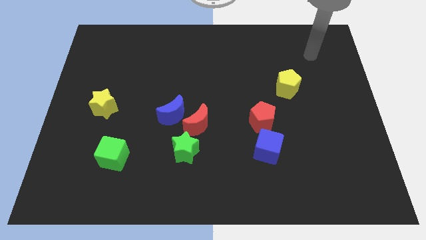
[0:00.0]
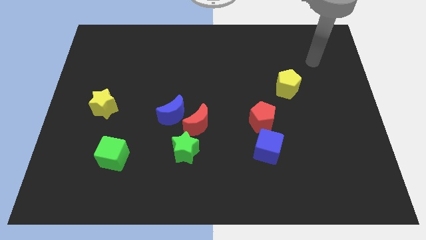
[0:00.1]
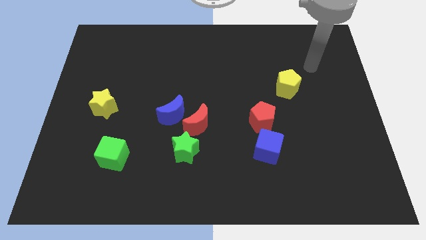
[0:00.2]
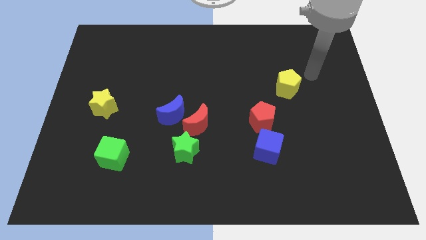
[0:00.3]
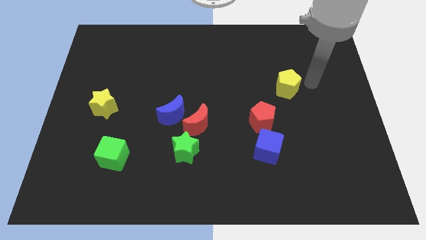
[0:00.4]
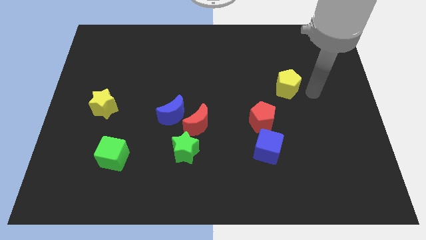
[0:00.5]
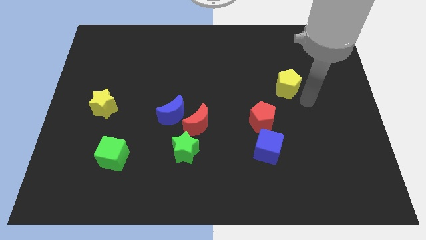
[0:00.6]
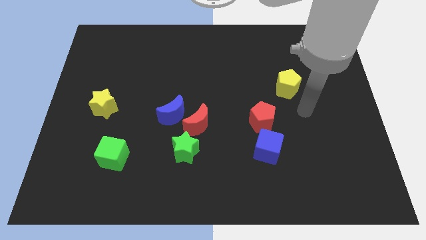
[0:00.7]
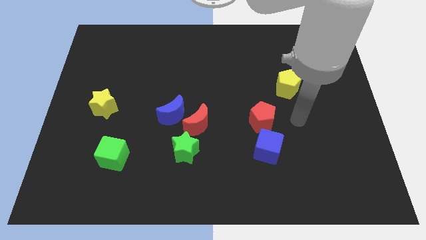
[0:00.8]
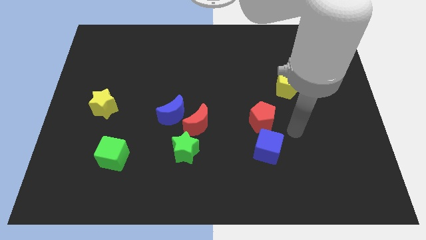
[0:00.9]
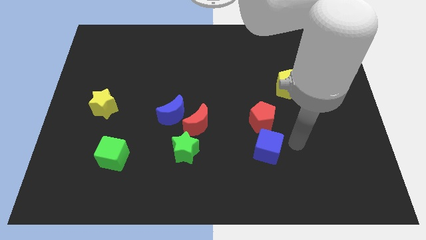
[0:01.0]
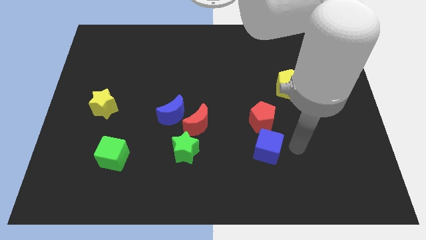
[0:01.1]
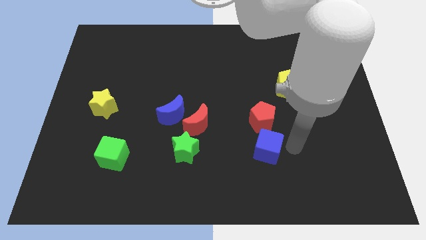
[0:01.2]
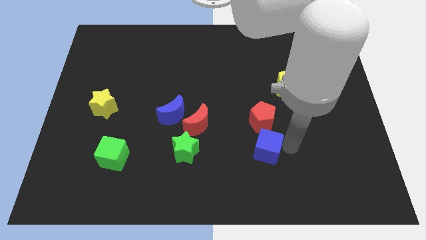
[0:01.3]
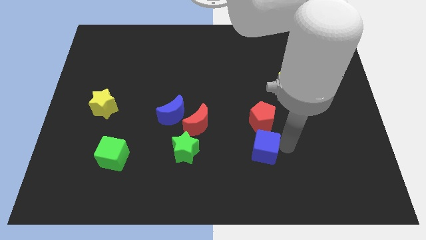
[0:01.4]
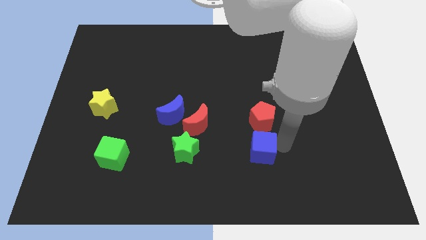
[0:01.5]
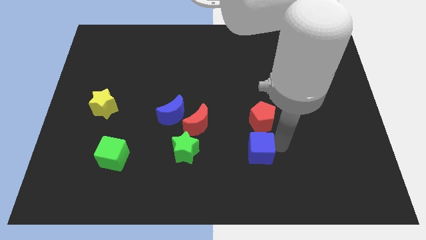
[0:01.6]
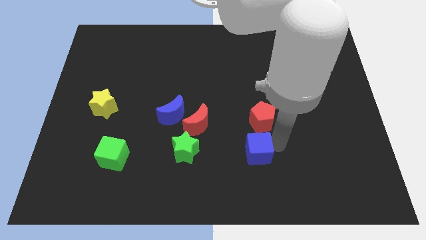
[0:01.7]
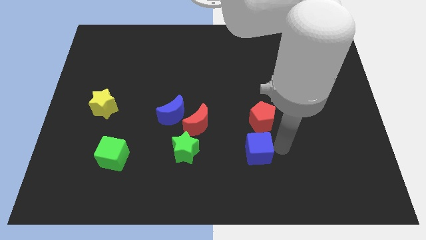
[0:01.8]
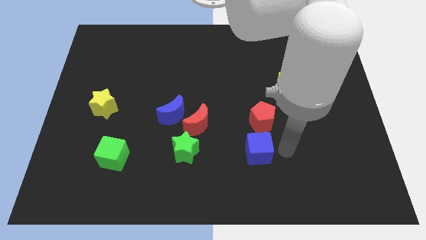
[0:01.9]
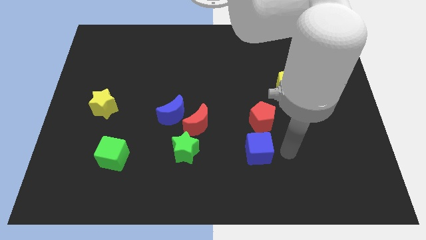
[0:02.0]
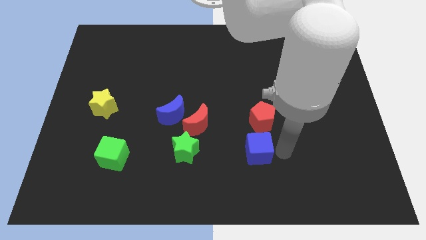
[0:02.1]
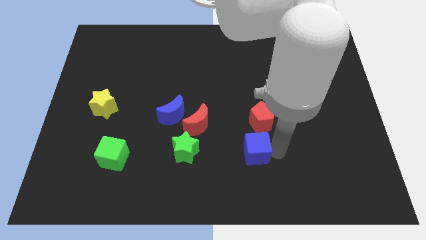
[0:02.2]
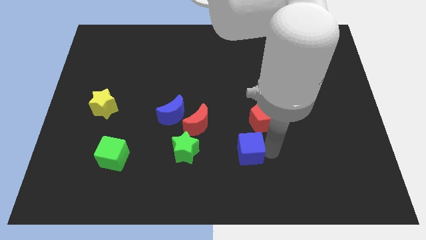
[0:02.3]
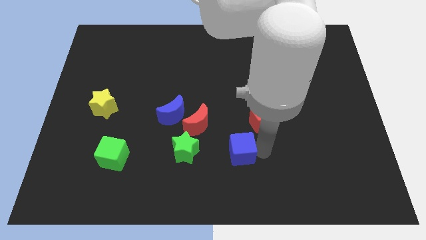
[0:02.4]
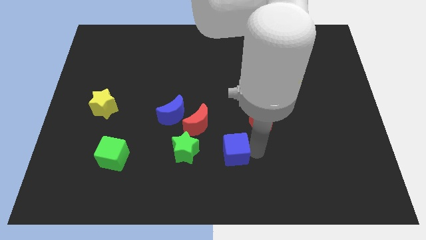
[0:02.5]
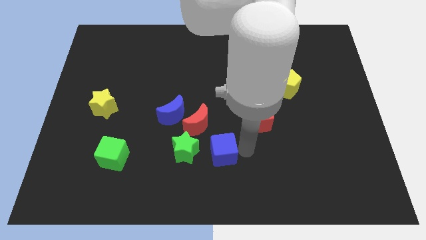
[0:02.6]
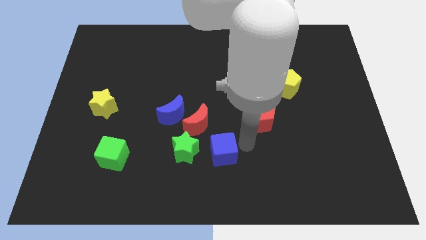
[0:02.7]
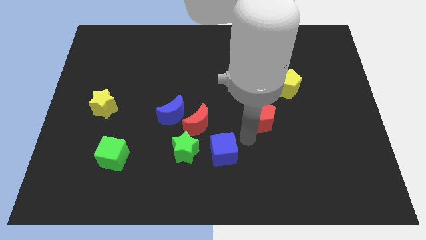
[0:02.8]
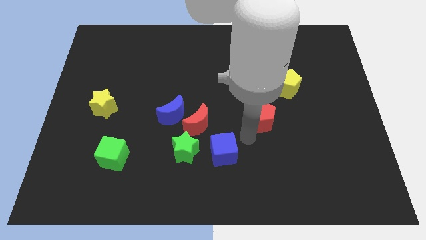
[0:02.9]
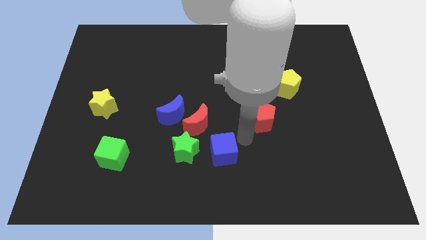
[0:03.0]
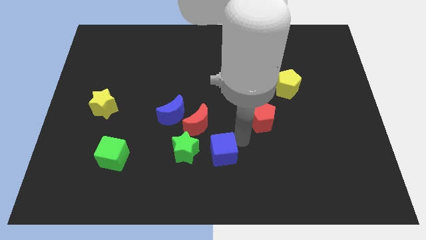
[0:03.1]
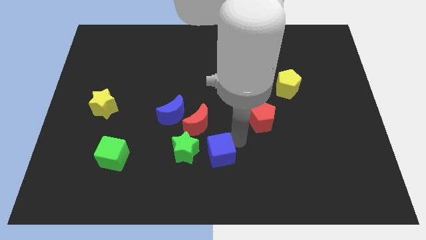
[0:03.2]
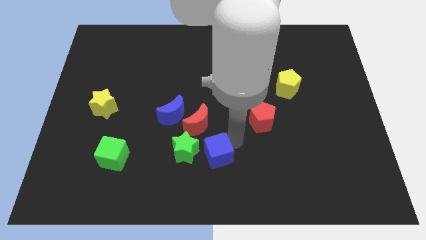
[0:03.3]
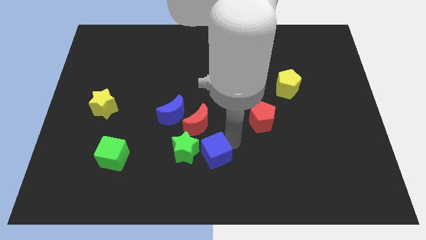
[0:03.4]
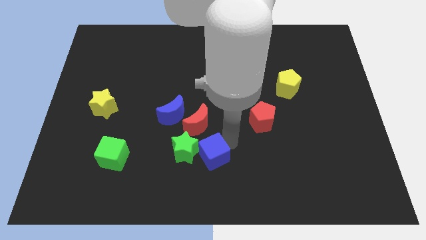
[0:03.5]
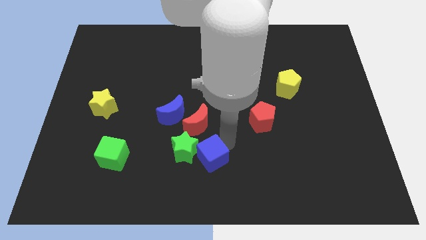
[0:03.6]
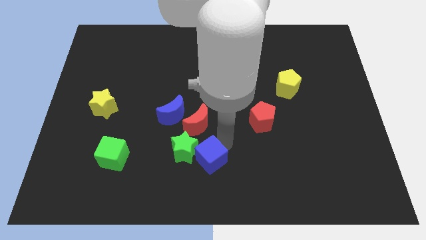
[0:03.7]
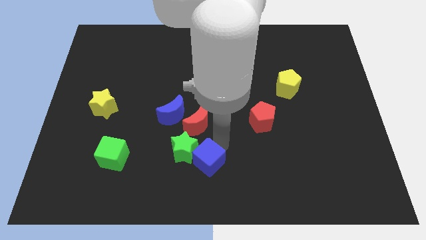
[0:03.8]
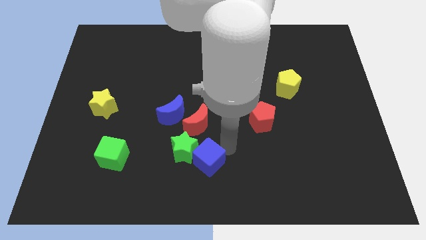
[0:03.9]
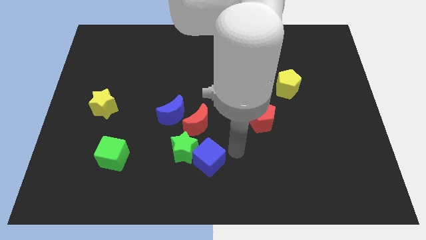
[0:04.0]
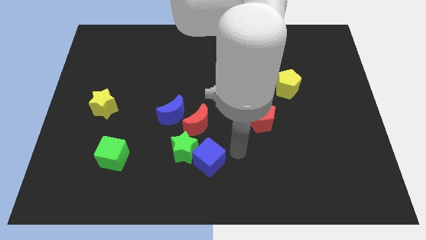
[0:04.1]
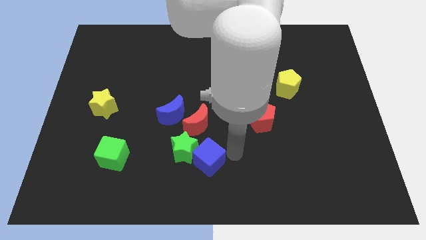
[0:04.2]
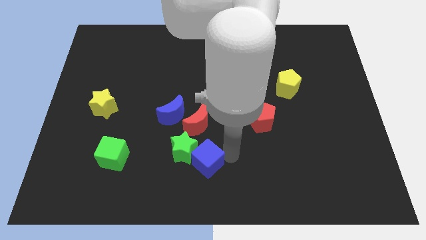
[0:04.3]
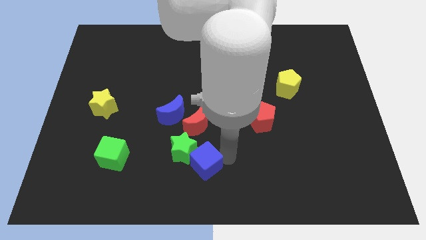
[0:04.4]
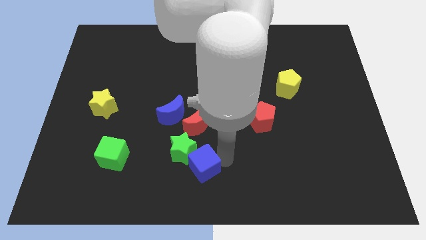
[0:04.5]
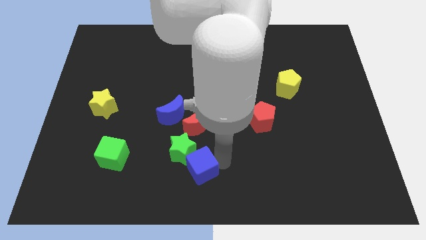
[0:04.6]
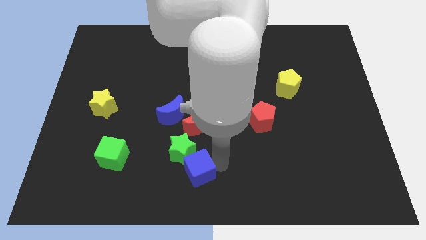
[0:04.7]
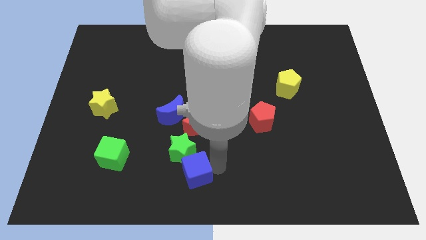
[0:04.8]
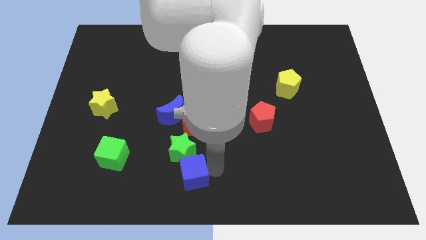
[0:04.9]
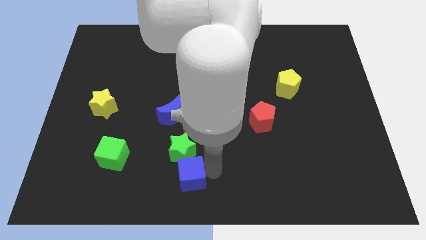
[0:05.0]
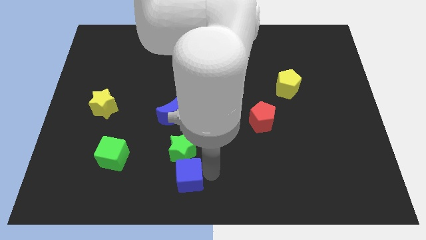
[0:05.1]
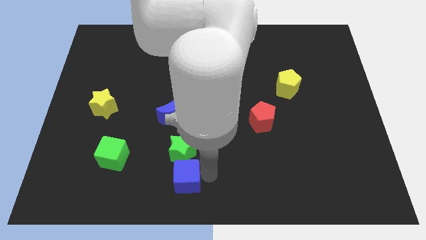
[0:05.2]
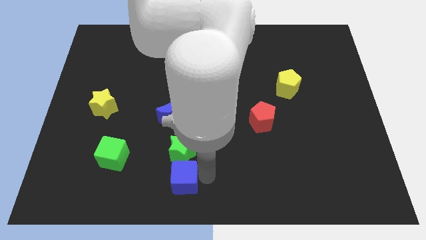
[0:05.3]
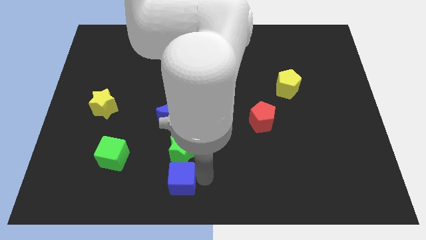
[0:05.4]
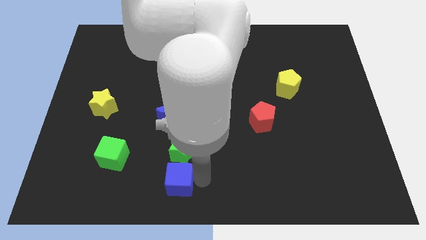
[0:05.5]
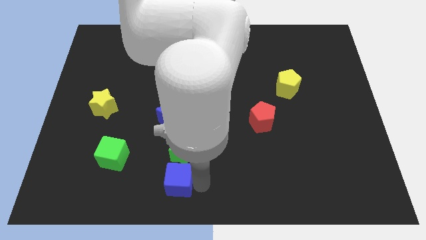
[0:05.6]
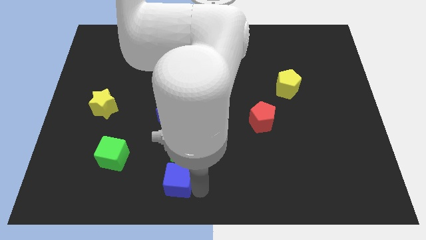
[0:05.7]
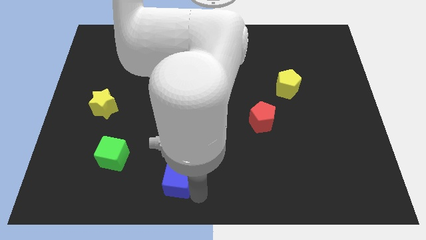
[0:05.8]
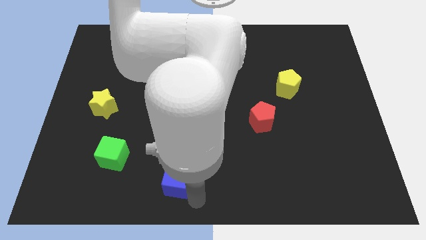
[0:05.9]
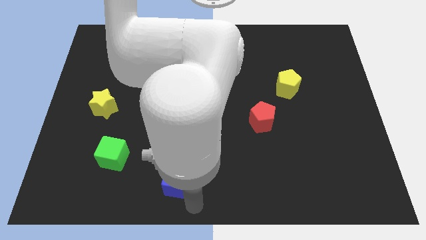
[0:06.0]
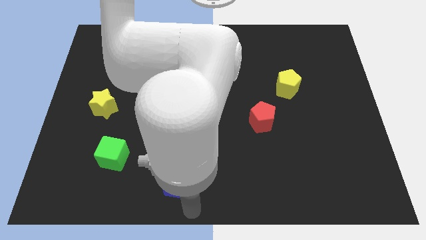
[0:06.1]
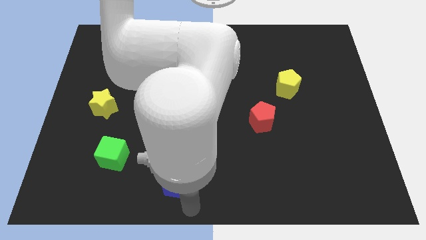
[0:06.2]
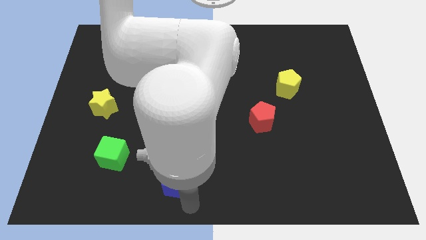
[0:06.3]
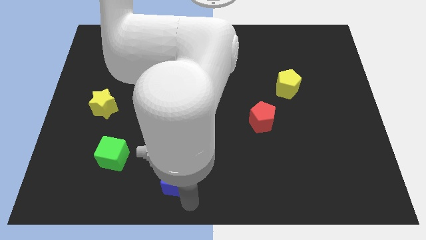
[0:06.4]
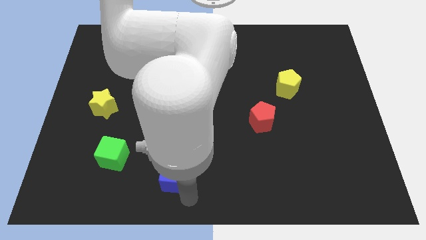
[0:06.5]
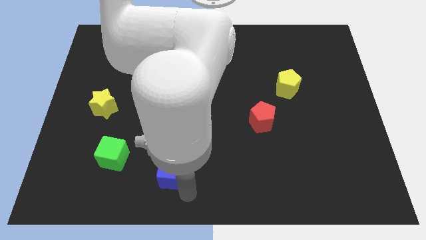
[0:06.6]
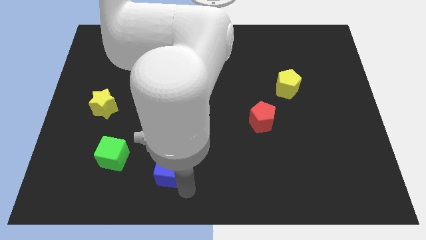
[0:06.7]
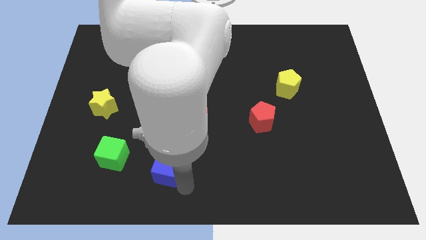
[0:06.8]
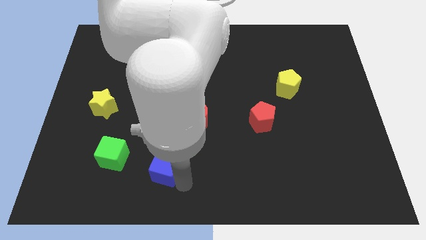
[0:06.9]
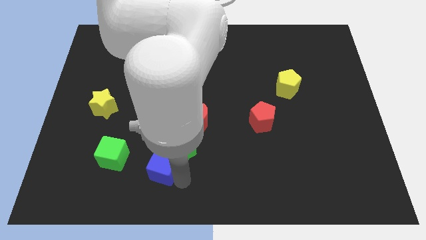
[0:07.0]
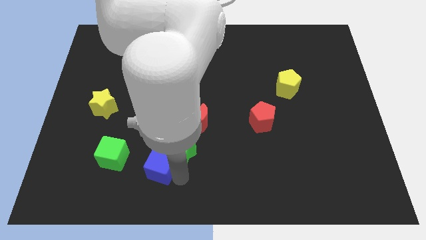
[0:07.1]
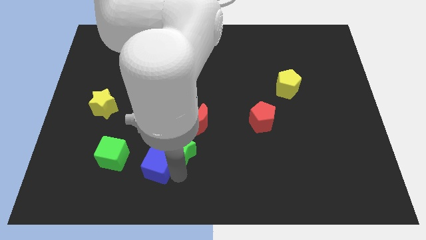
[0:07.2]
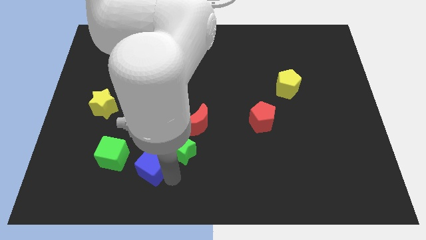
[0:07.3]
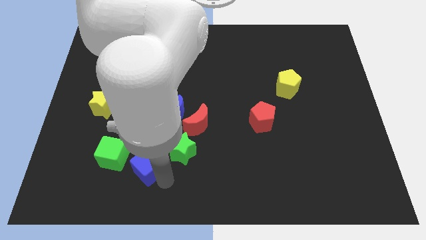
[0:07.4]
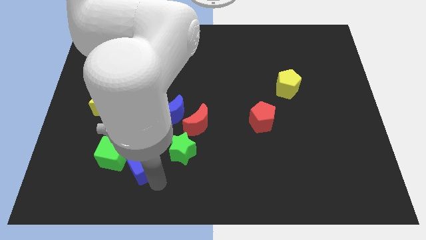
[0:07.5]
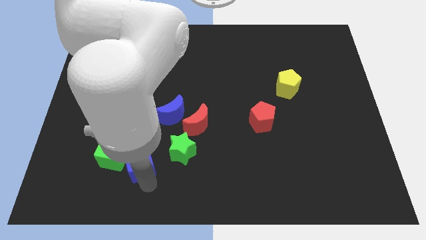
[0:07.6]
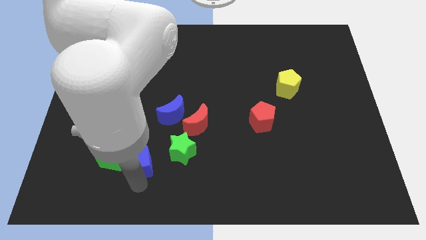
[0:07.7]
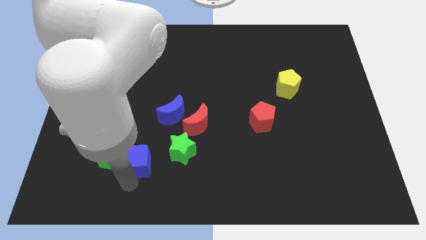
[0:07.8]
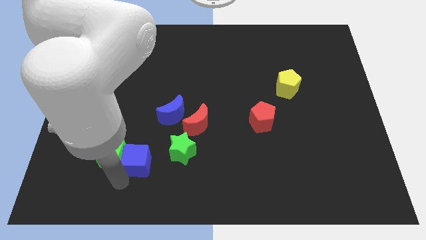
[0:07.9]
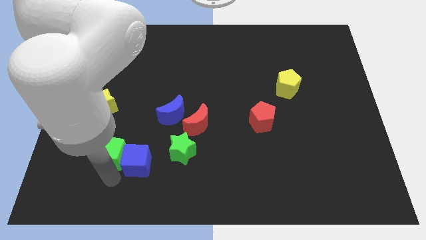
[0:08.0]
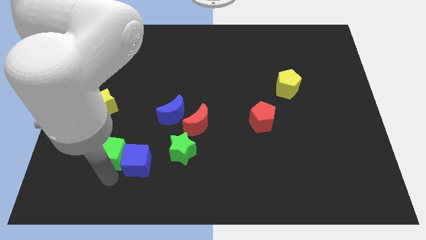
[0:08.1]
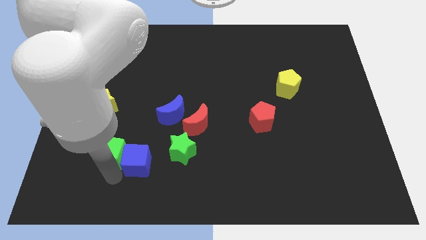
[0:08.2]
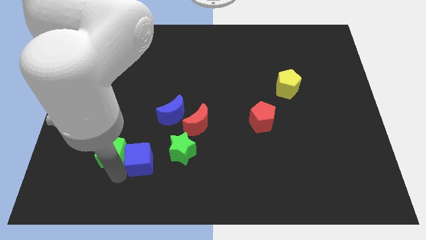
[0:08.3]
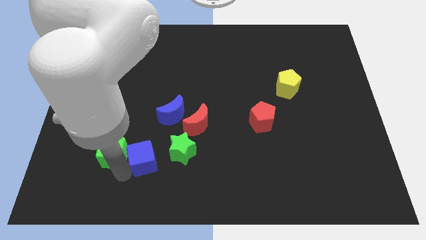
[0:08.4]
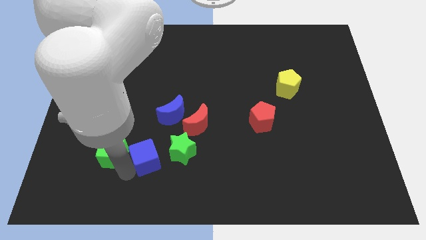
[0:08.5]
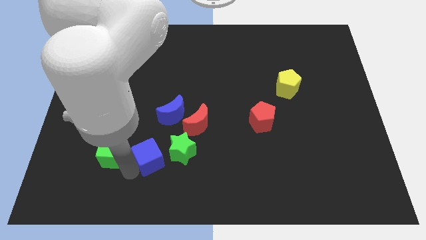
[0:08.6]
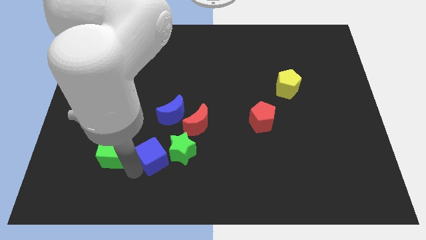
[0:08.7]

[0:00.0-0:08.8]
slide the blue cube diagonally down and to the left of the red moon
